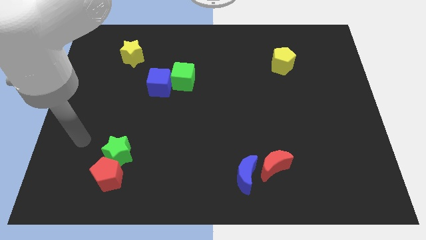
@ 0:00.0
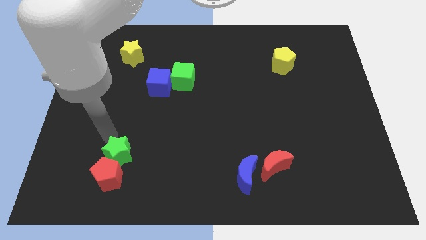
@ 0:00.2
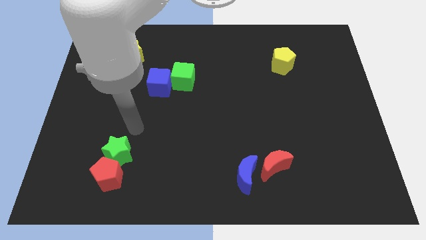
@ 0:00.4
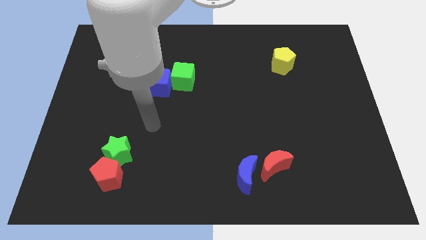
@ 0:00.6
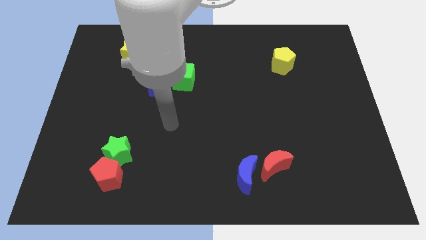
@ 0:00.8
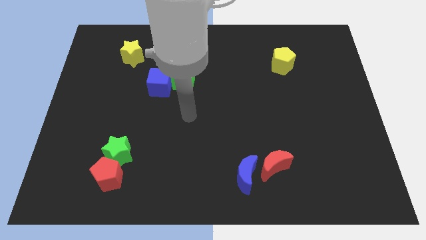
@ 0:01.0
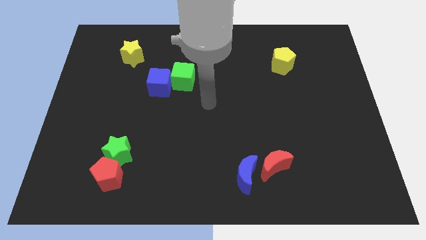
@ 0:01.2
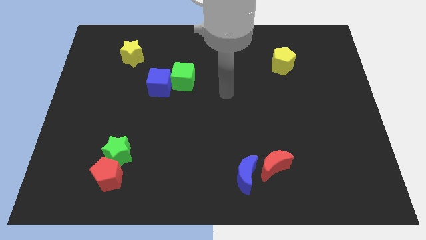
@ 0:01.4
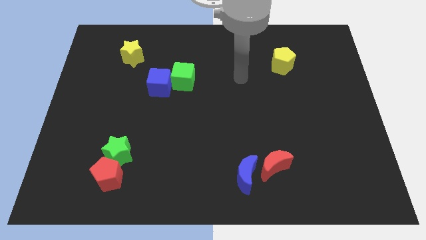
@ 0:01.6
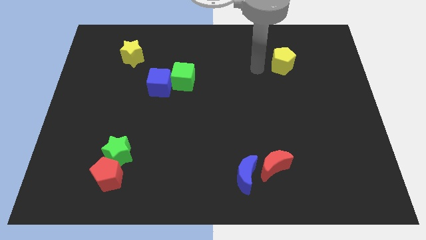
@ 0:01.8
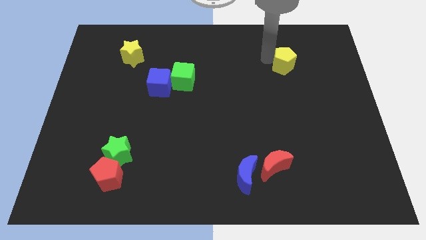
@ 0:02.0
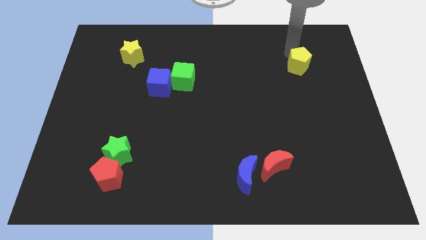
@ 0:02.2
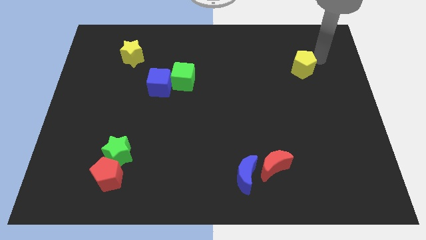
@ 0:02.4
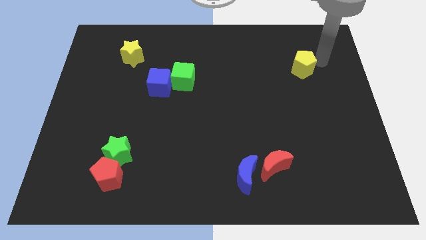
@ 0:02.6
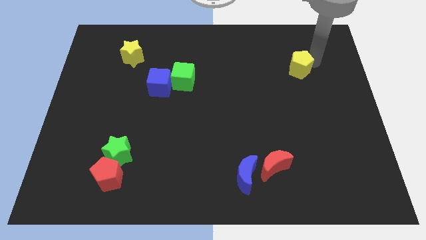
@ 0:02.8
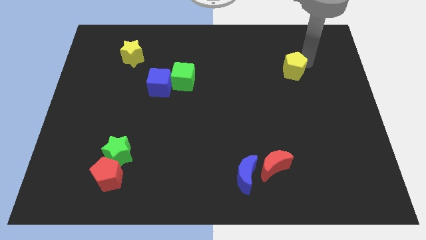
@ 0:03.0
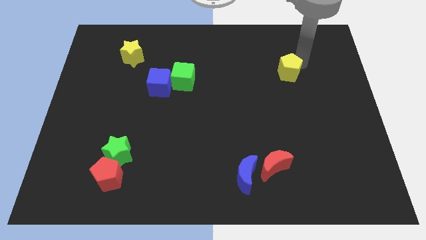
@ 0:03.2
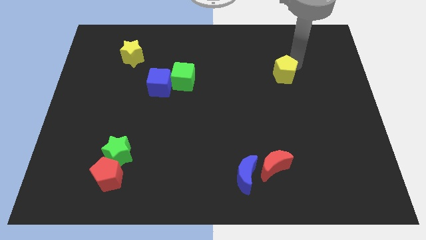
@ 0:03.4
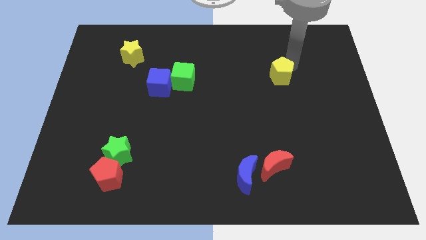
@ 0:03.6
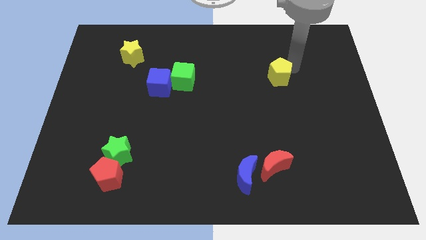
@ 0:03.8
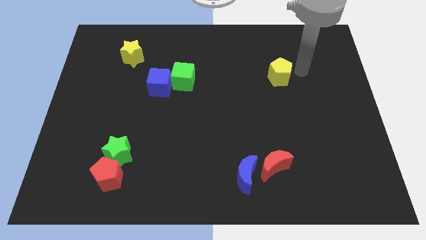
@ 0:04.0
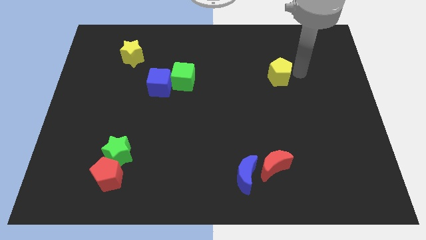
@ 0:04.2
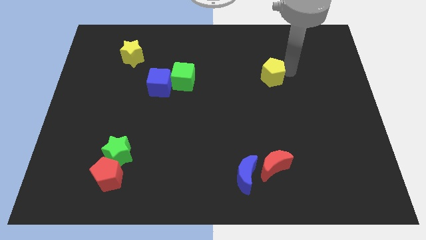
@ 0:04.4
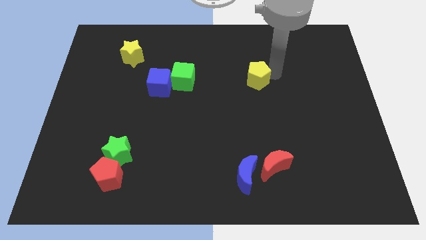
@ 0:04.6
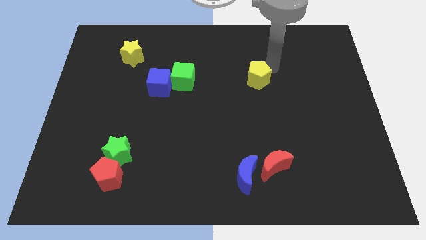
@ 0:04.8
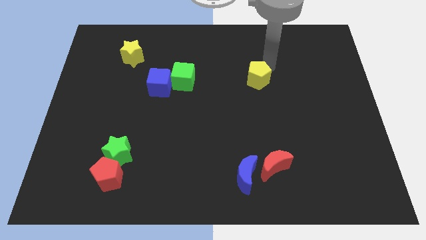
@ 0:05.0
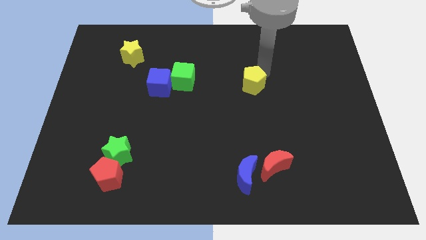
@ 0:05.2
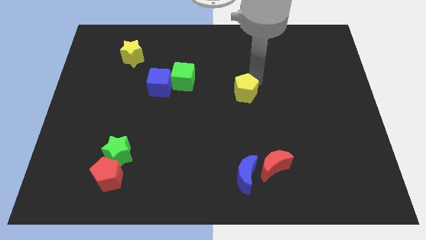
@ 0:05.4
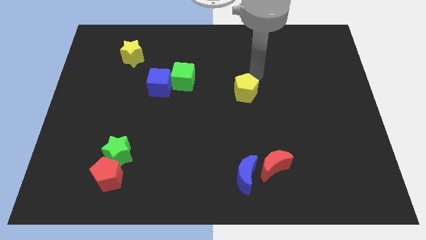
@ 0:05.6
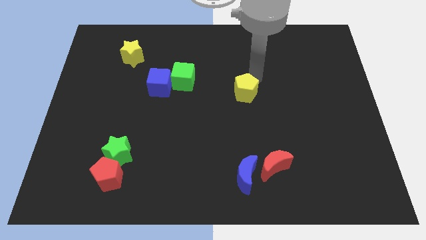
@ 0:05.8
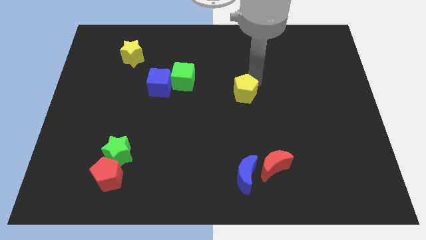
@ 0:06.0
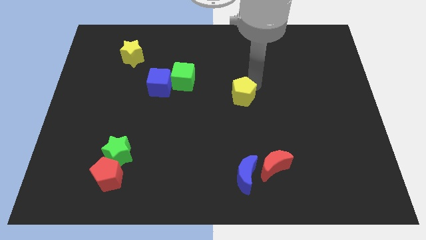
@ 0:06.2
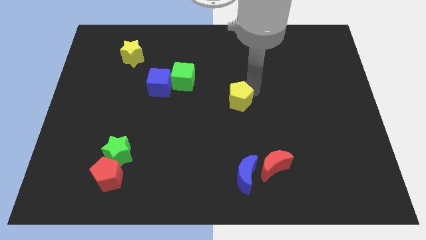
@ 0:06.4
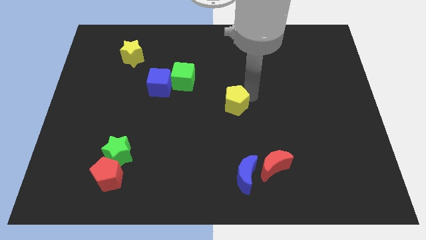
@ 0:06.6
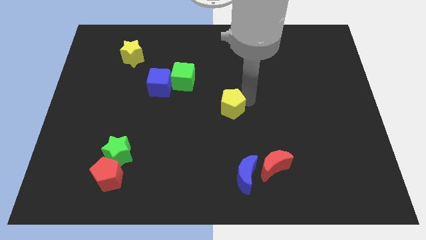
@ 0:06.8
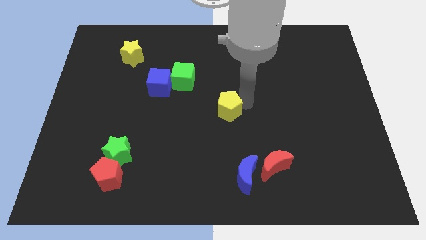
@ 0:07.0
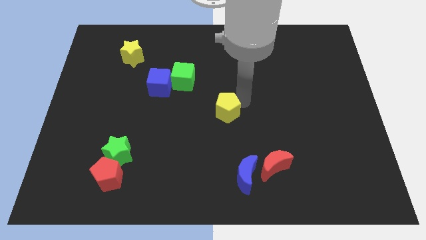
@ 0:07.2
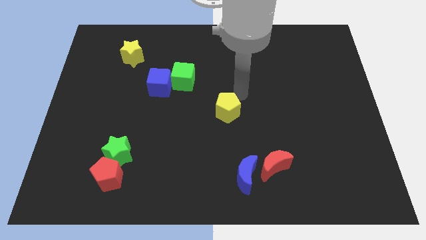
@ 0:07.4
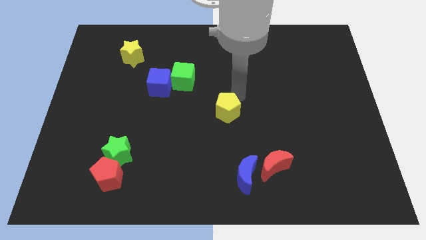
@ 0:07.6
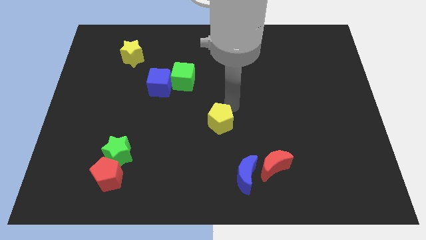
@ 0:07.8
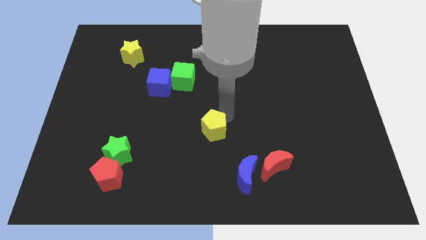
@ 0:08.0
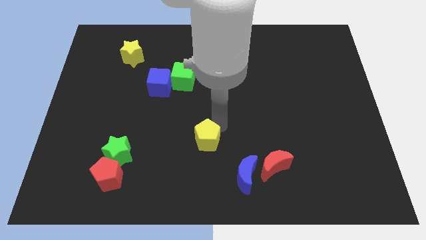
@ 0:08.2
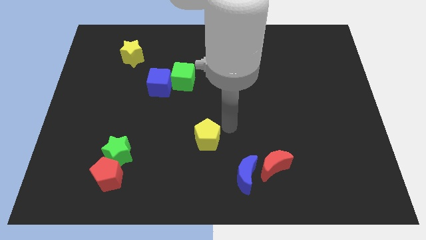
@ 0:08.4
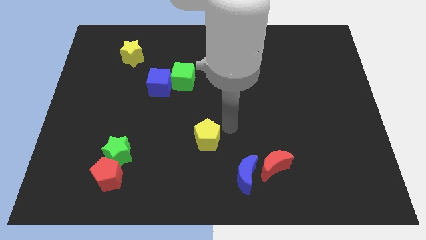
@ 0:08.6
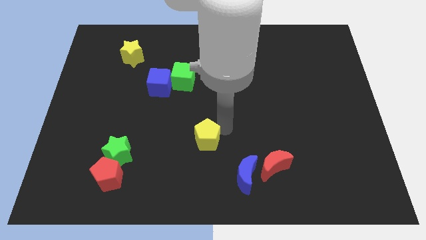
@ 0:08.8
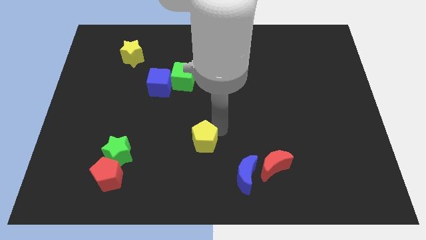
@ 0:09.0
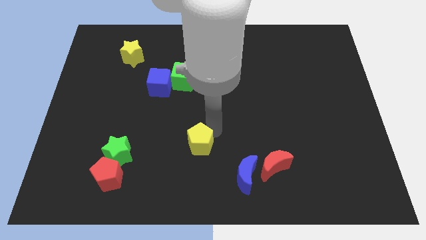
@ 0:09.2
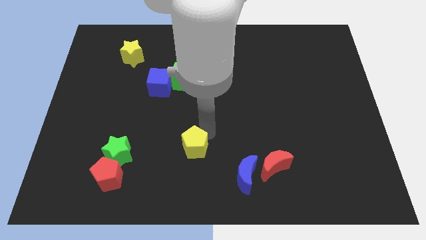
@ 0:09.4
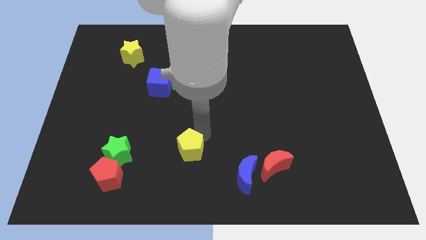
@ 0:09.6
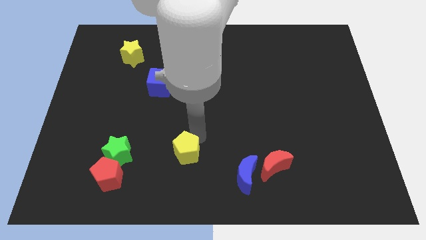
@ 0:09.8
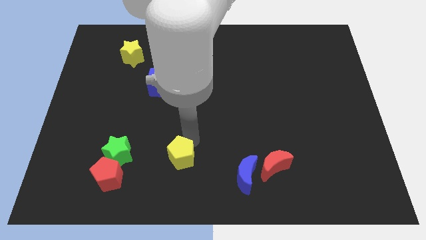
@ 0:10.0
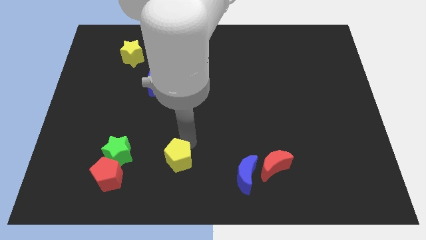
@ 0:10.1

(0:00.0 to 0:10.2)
move the yellow pentagon to the right side of the red pentagon

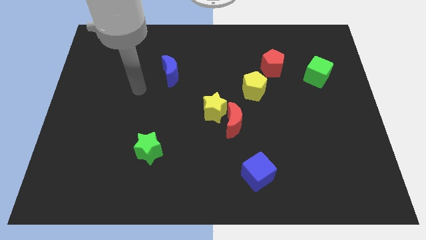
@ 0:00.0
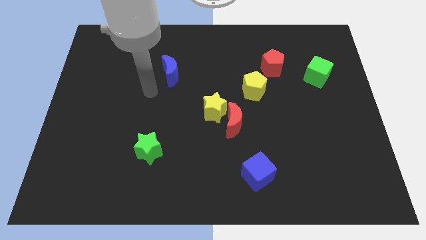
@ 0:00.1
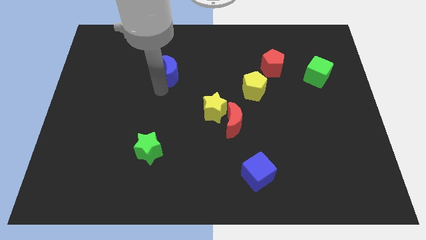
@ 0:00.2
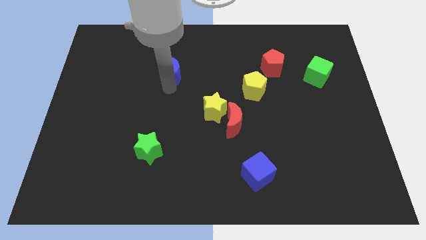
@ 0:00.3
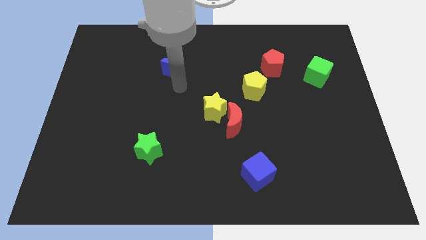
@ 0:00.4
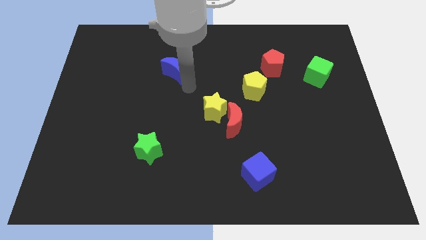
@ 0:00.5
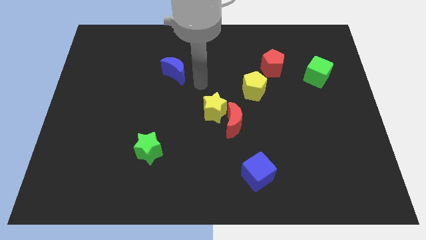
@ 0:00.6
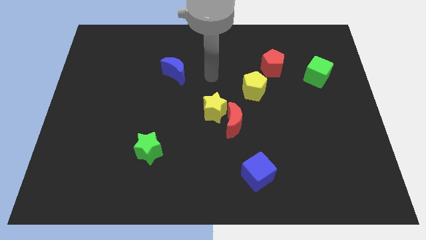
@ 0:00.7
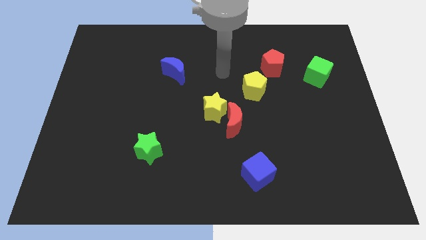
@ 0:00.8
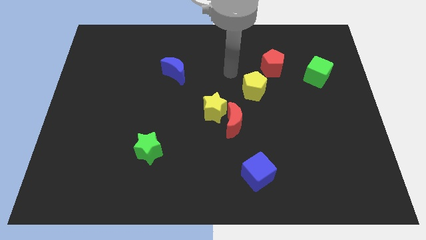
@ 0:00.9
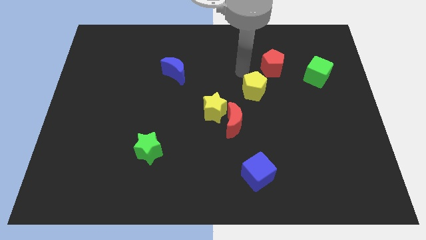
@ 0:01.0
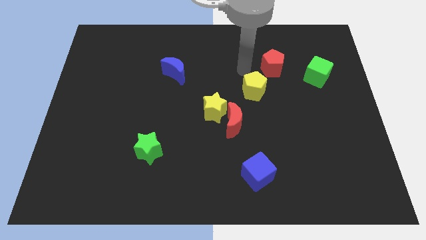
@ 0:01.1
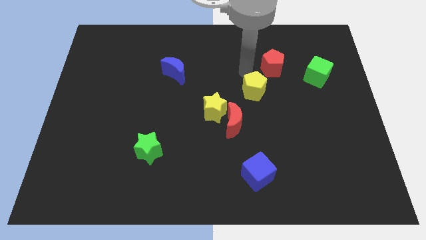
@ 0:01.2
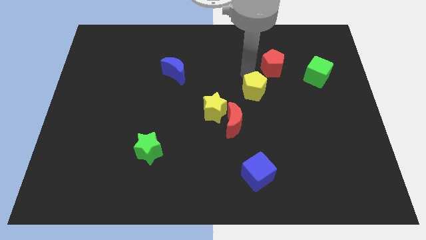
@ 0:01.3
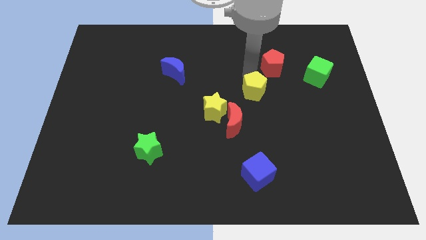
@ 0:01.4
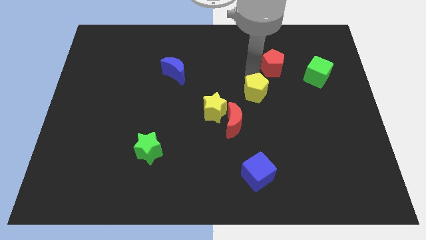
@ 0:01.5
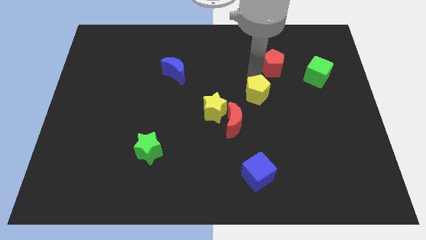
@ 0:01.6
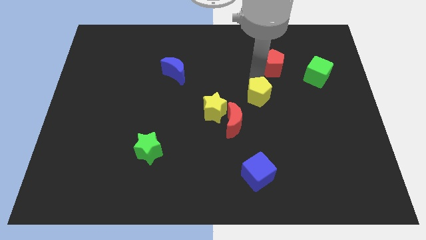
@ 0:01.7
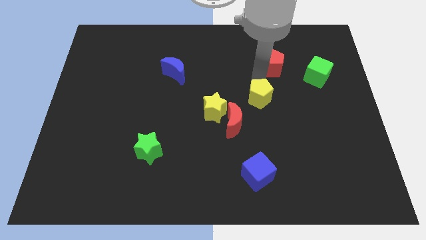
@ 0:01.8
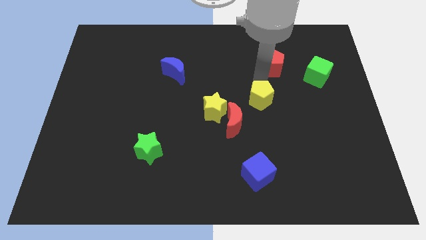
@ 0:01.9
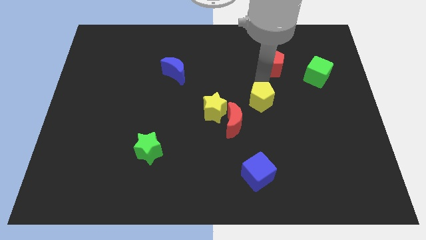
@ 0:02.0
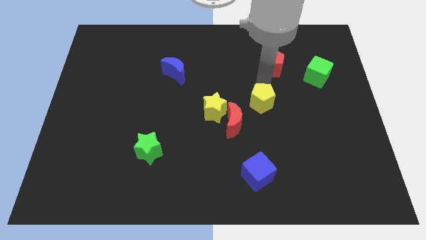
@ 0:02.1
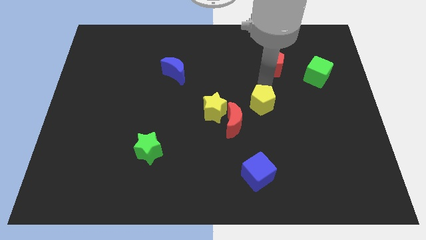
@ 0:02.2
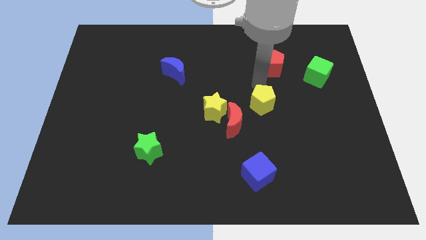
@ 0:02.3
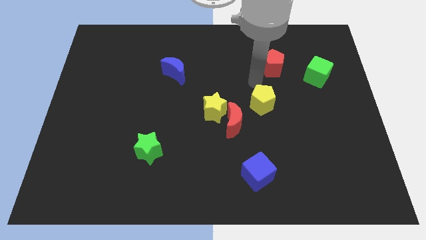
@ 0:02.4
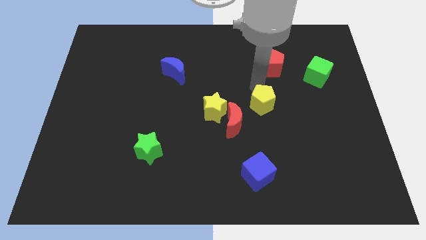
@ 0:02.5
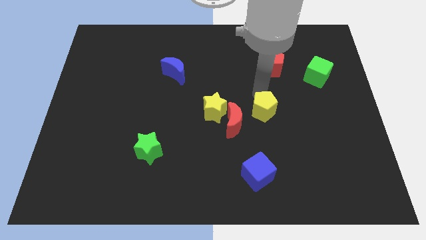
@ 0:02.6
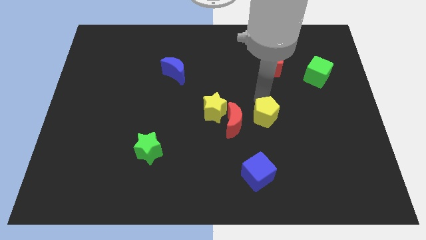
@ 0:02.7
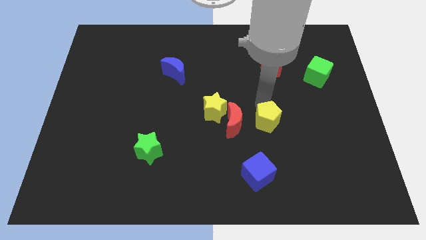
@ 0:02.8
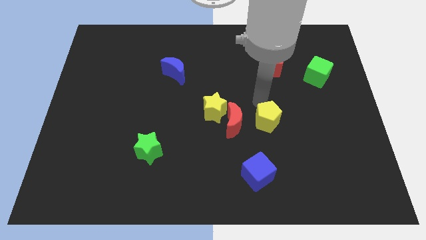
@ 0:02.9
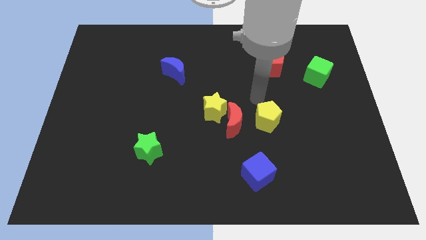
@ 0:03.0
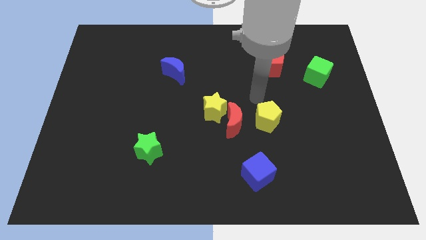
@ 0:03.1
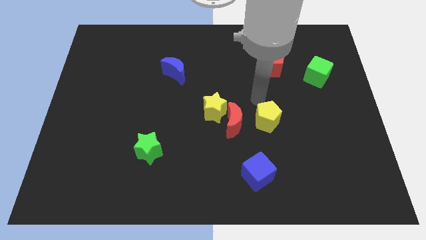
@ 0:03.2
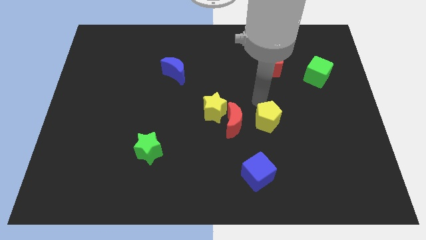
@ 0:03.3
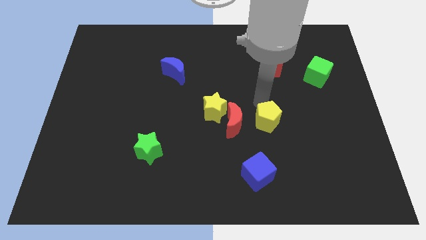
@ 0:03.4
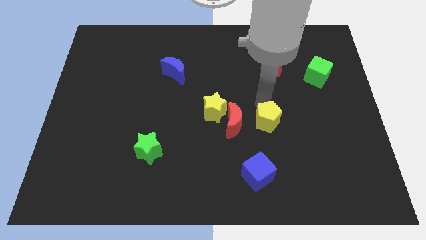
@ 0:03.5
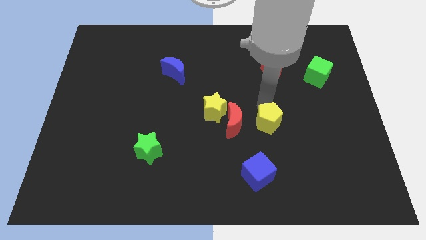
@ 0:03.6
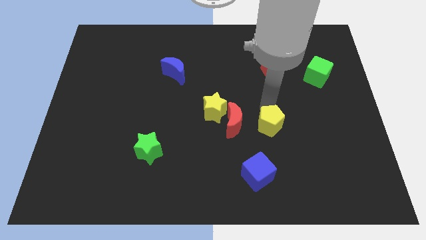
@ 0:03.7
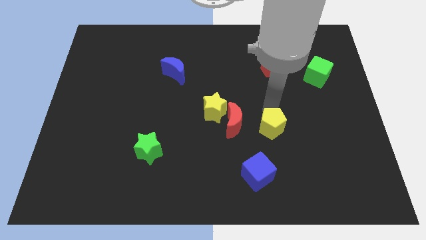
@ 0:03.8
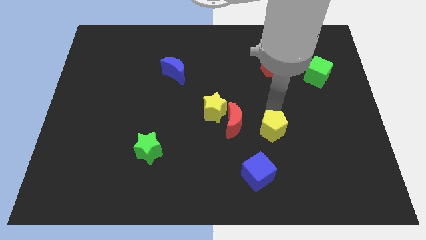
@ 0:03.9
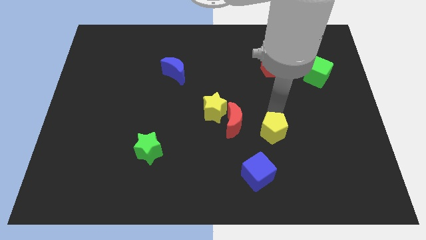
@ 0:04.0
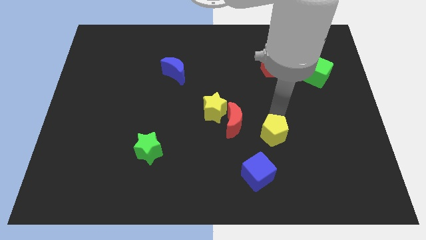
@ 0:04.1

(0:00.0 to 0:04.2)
push the yellow pentagon to the top right side of the blue cube
